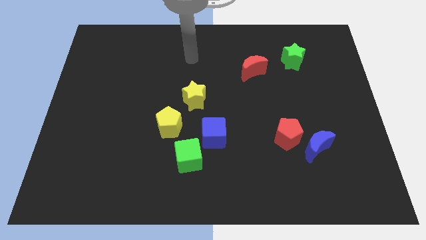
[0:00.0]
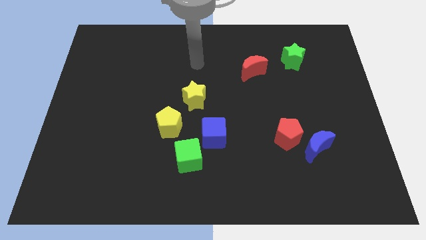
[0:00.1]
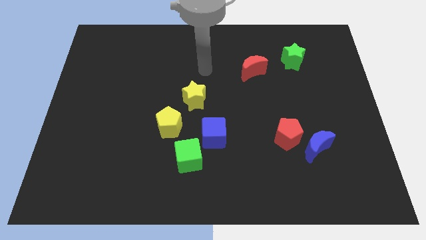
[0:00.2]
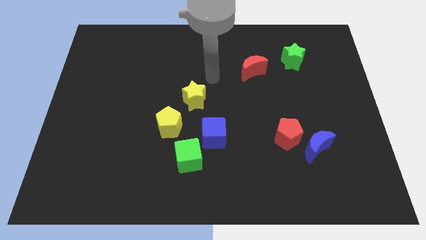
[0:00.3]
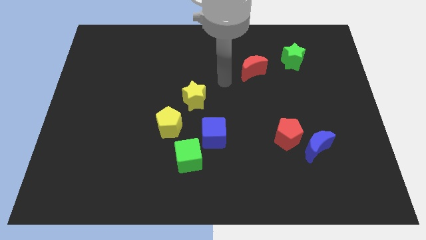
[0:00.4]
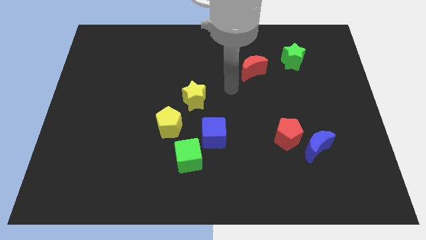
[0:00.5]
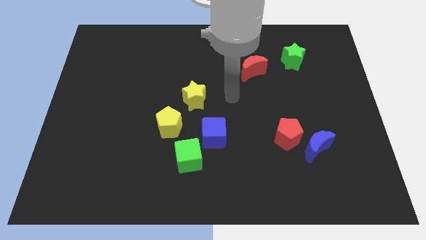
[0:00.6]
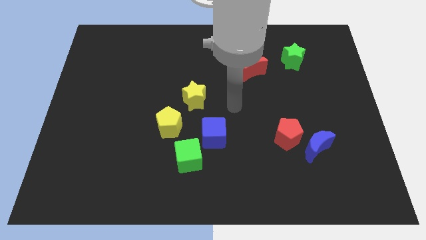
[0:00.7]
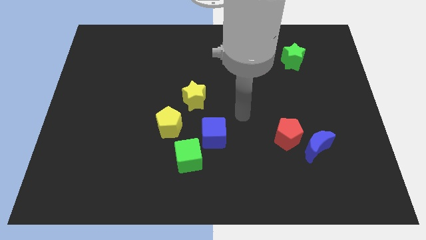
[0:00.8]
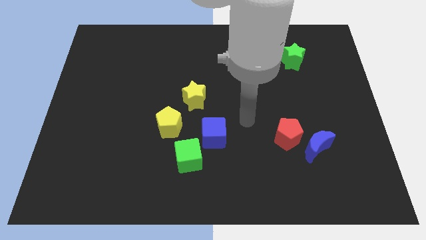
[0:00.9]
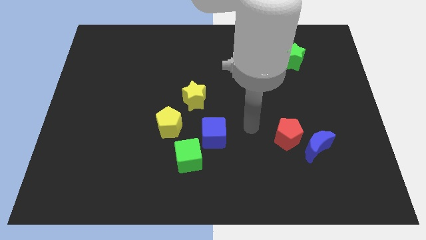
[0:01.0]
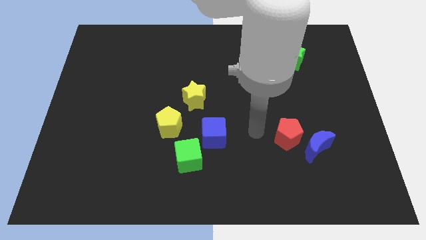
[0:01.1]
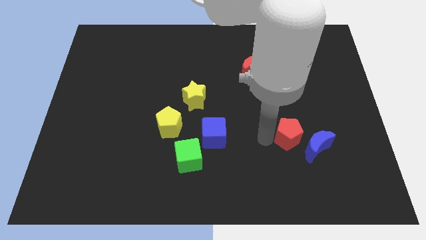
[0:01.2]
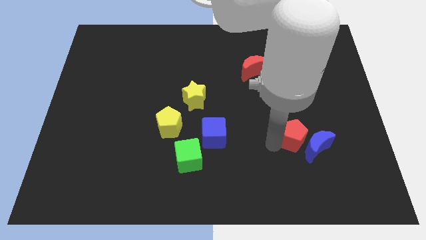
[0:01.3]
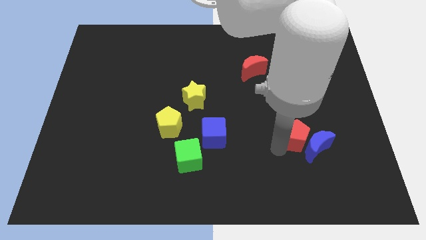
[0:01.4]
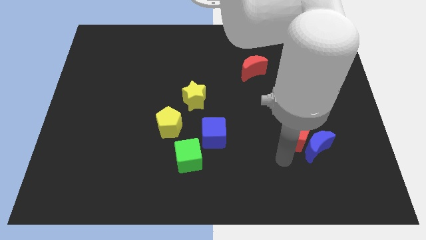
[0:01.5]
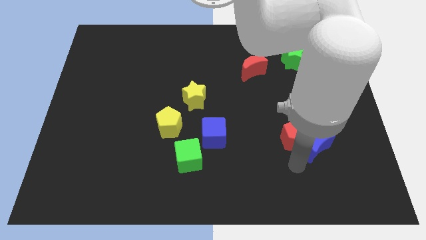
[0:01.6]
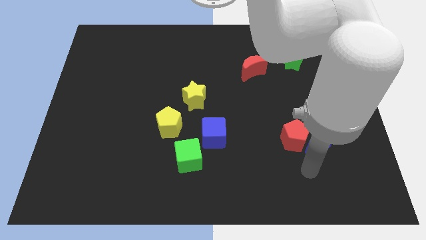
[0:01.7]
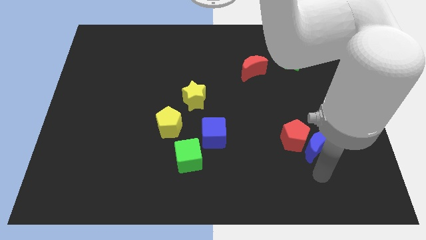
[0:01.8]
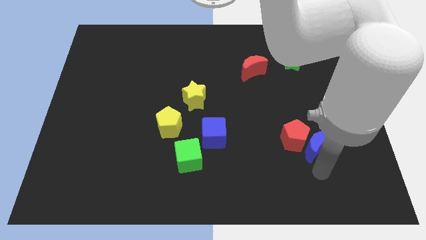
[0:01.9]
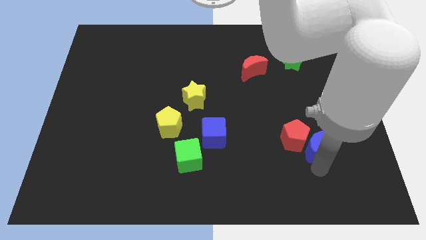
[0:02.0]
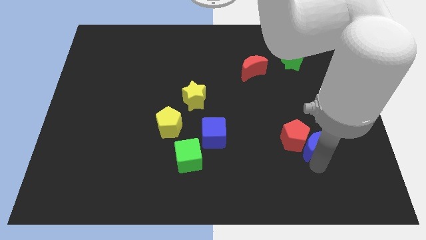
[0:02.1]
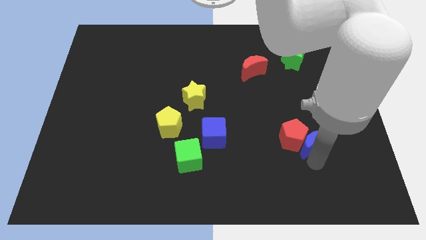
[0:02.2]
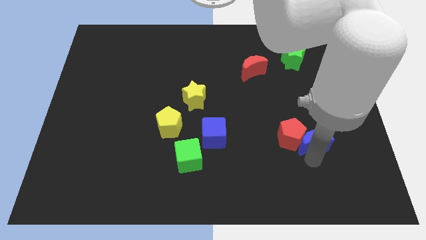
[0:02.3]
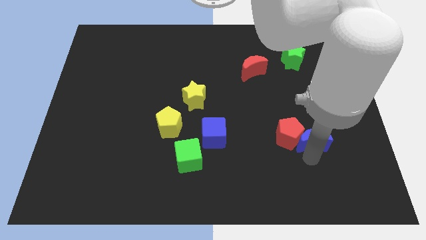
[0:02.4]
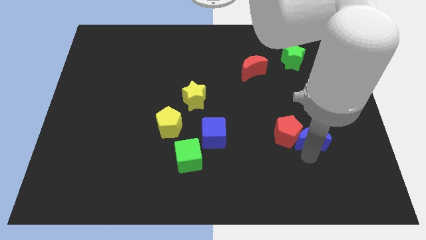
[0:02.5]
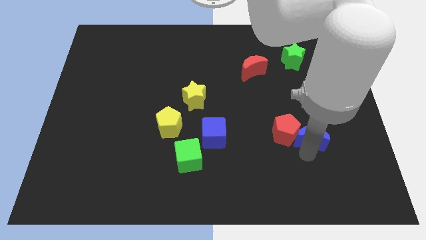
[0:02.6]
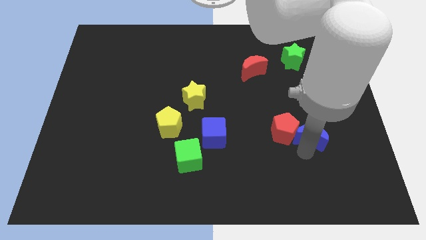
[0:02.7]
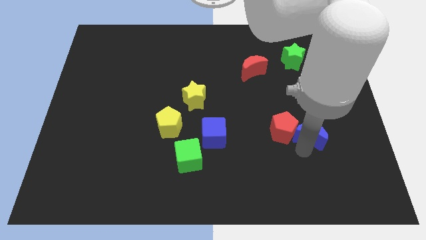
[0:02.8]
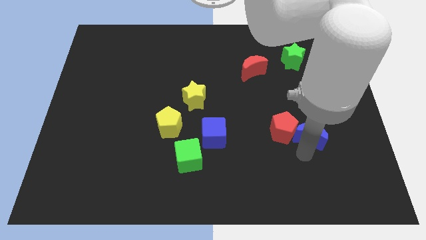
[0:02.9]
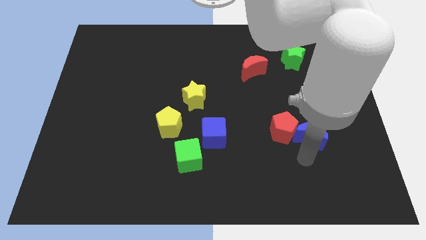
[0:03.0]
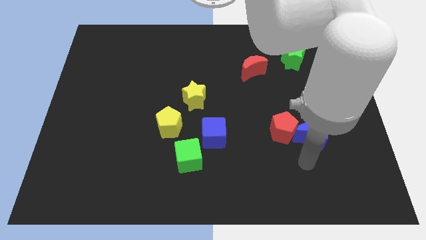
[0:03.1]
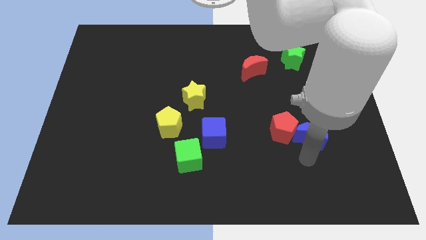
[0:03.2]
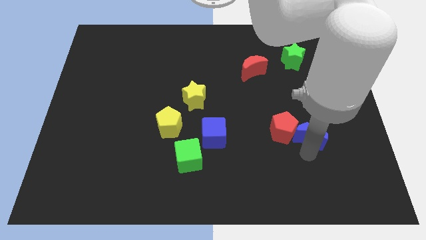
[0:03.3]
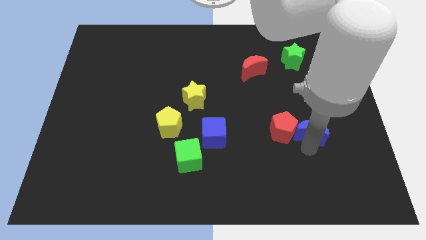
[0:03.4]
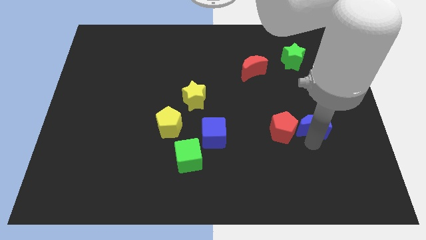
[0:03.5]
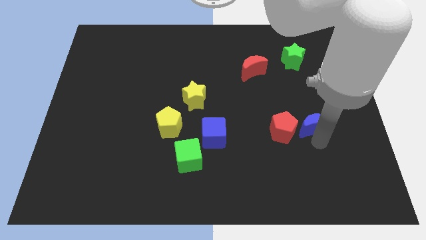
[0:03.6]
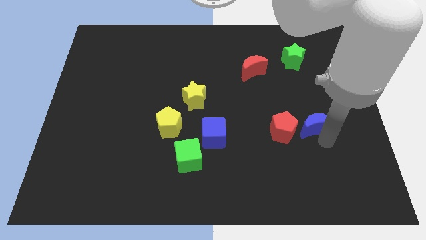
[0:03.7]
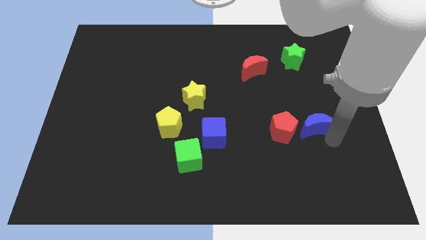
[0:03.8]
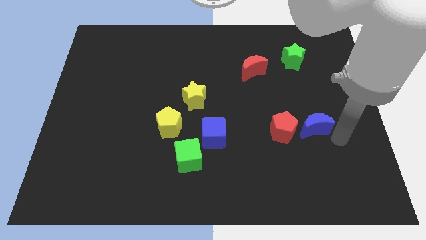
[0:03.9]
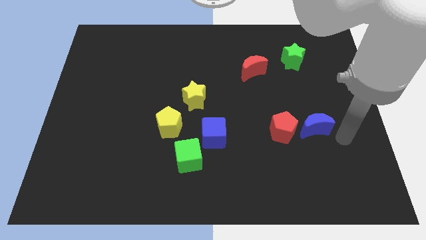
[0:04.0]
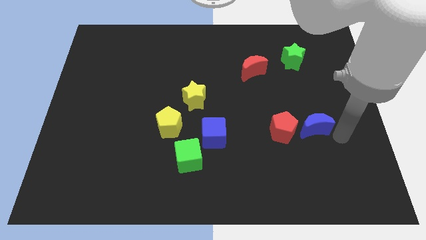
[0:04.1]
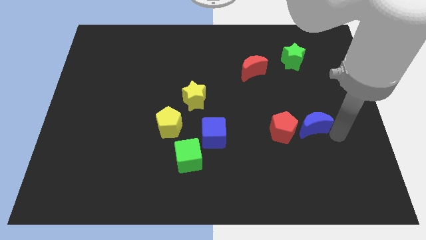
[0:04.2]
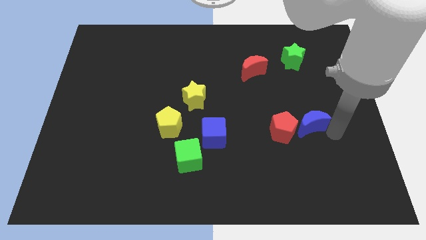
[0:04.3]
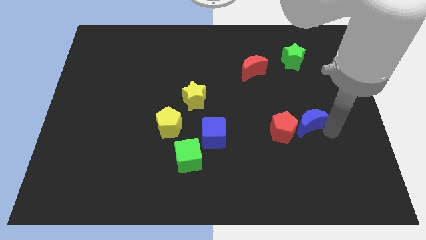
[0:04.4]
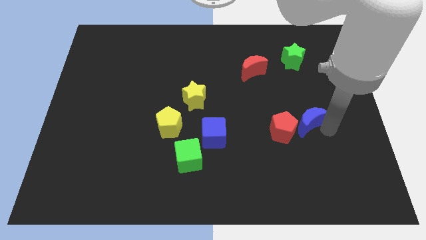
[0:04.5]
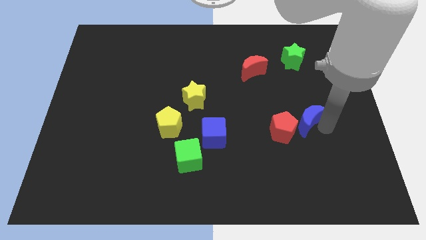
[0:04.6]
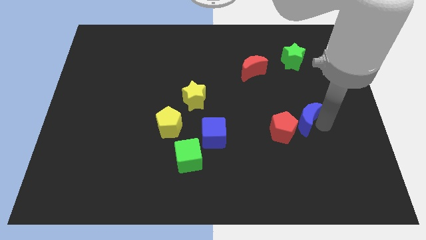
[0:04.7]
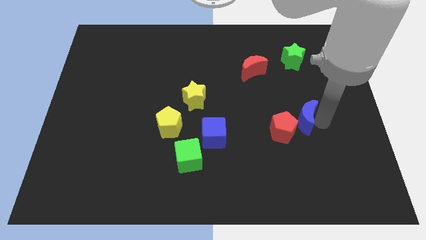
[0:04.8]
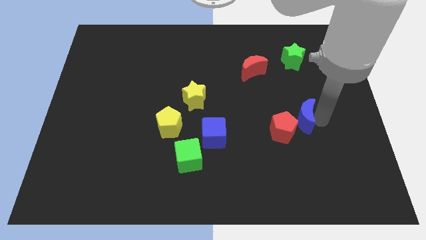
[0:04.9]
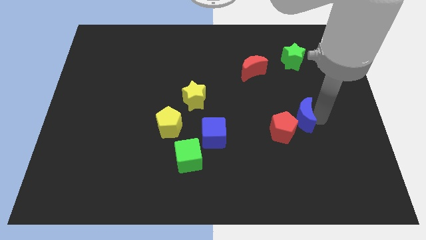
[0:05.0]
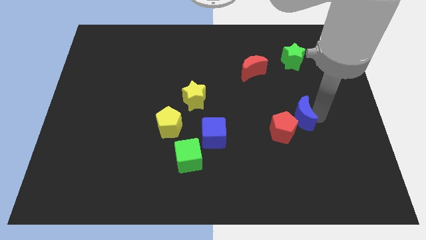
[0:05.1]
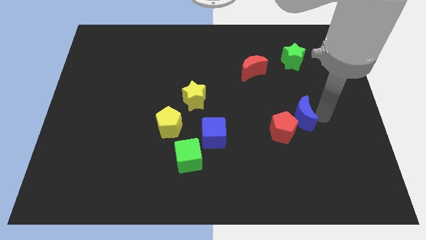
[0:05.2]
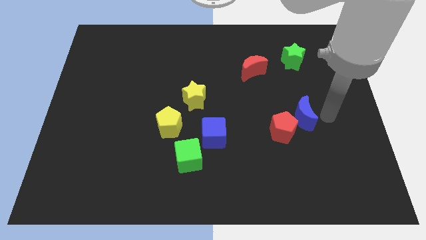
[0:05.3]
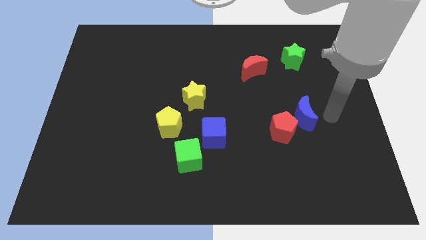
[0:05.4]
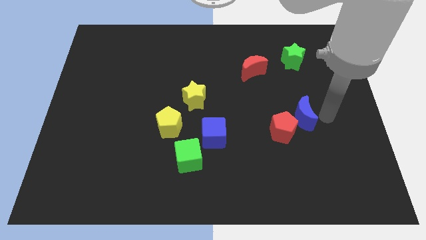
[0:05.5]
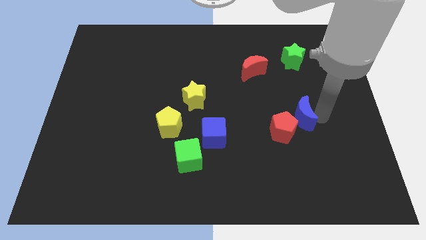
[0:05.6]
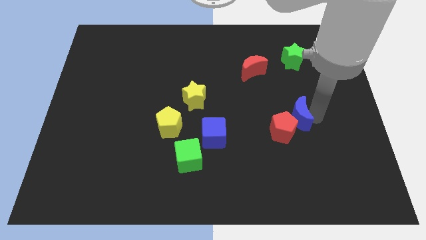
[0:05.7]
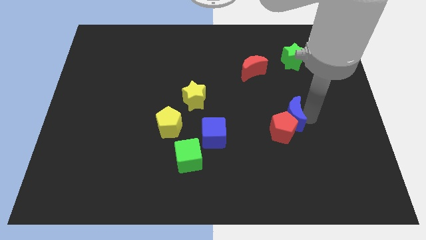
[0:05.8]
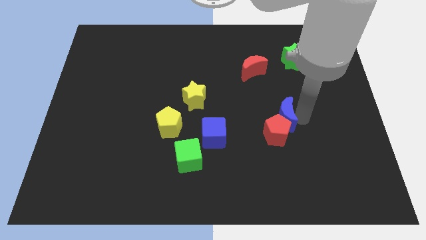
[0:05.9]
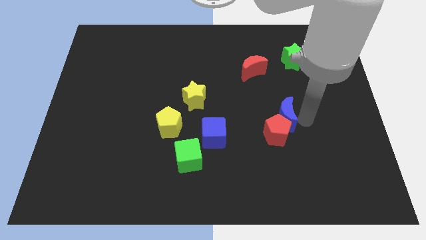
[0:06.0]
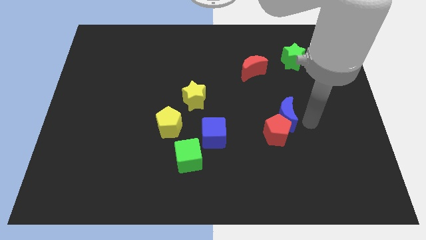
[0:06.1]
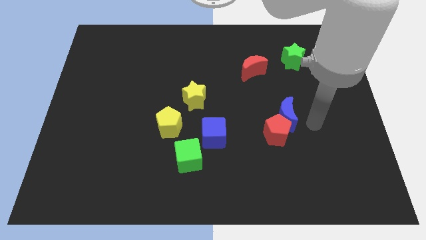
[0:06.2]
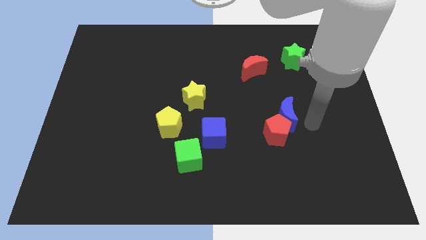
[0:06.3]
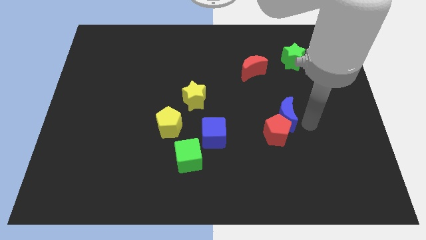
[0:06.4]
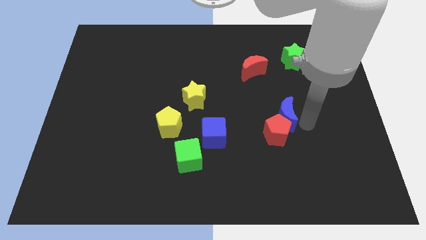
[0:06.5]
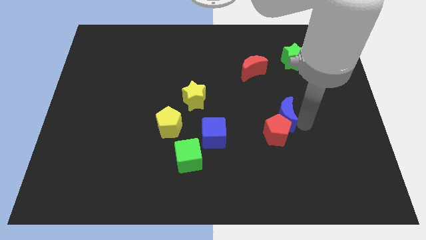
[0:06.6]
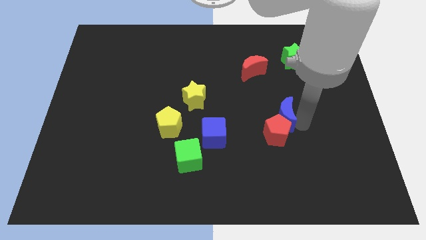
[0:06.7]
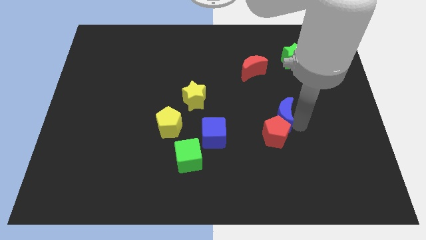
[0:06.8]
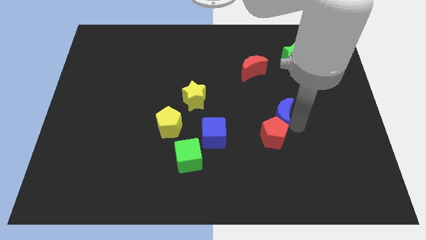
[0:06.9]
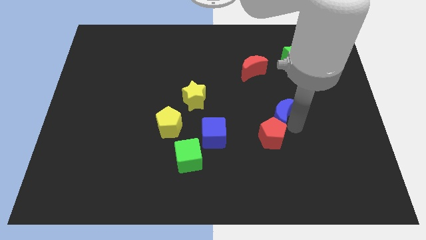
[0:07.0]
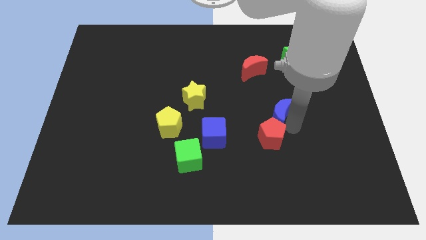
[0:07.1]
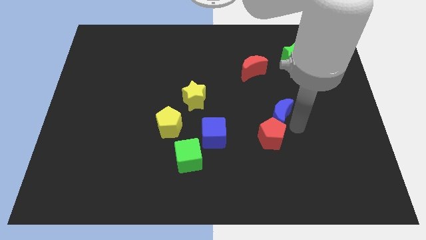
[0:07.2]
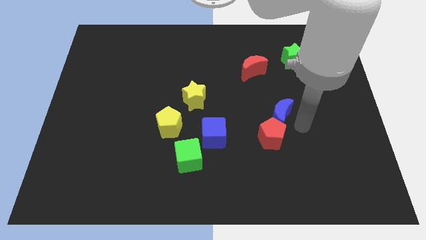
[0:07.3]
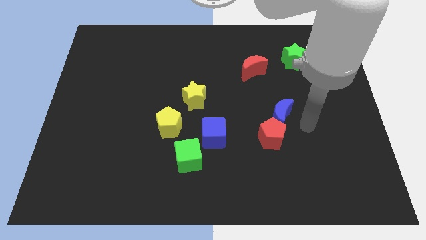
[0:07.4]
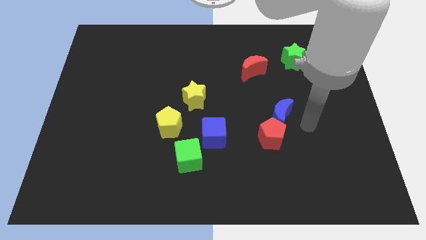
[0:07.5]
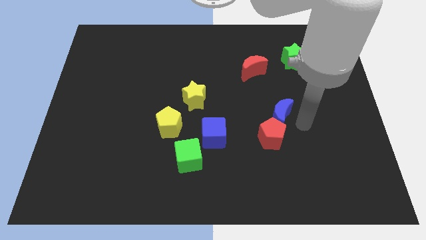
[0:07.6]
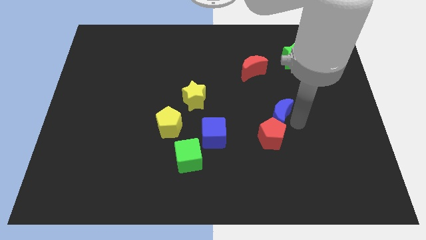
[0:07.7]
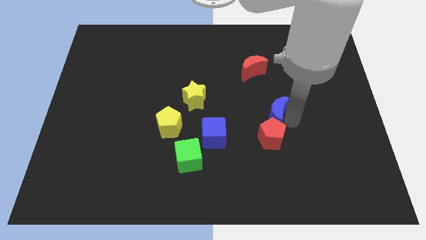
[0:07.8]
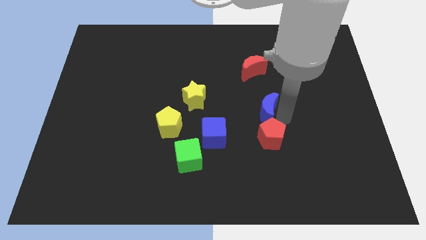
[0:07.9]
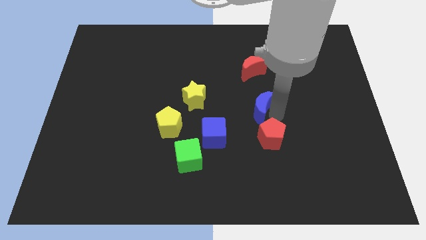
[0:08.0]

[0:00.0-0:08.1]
put the blue moon to the middle
